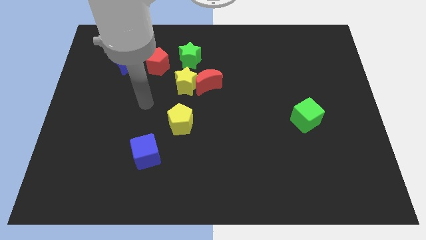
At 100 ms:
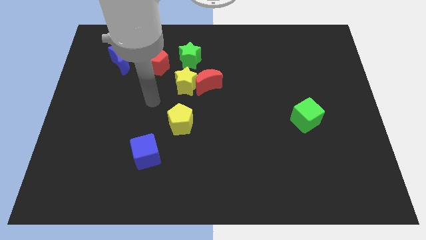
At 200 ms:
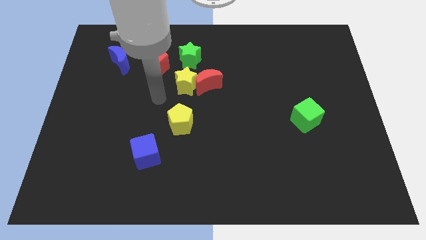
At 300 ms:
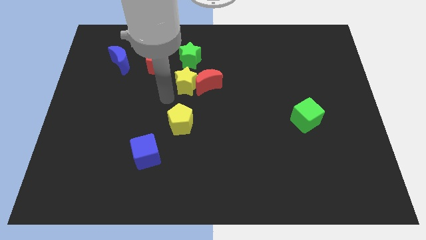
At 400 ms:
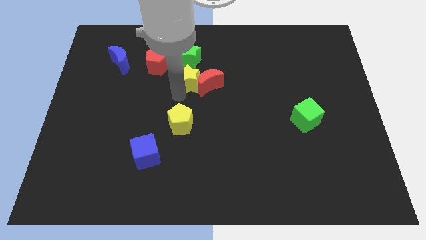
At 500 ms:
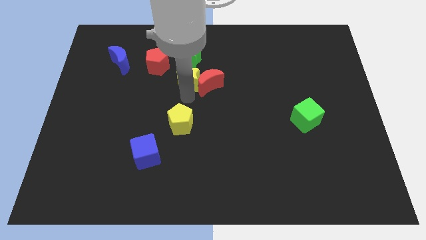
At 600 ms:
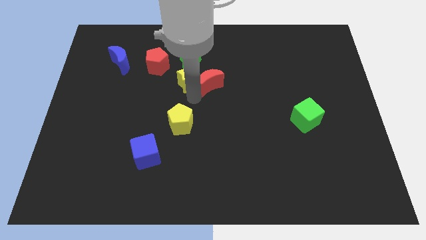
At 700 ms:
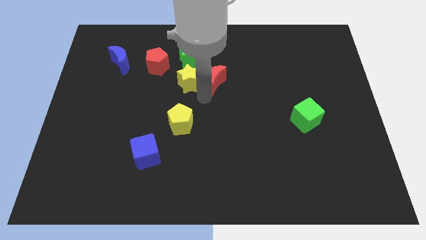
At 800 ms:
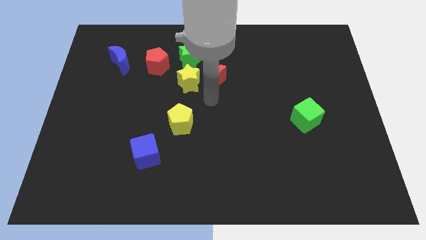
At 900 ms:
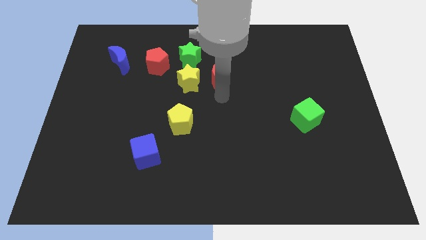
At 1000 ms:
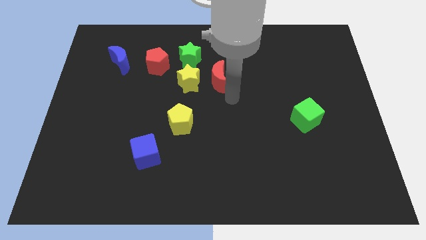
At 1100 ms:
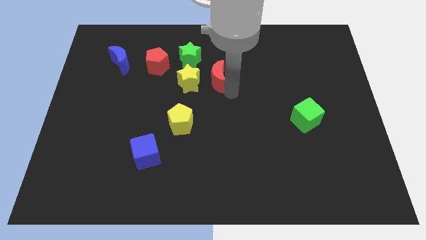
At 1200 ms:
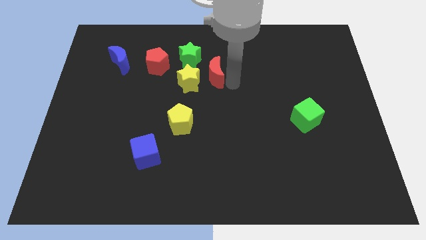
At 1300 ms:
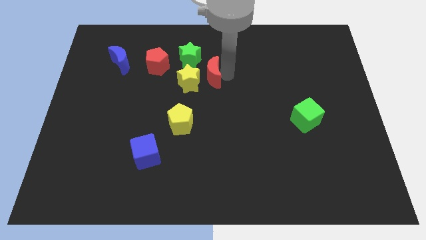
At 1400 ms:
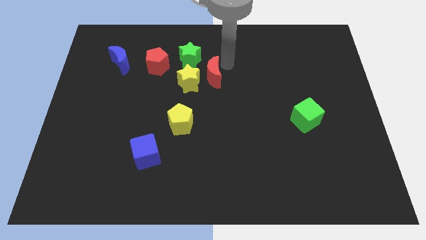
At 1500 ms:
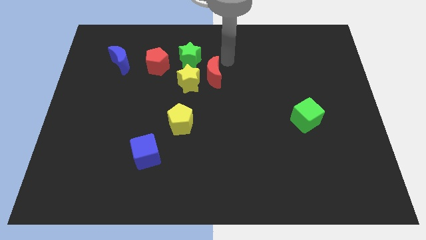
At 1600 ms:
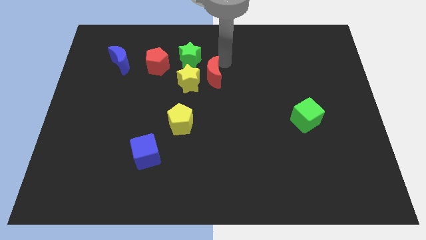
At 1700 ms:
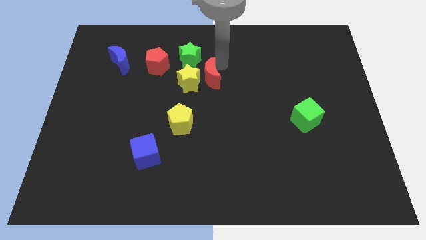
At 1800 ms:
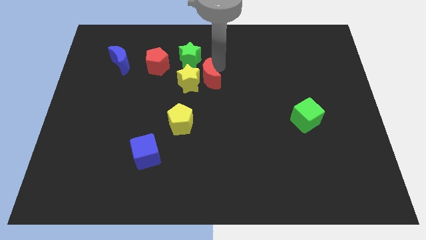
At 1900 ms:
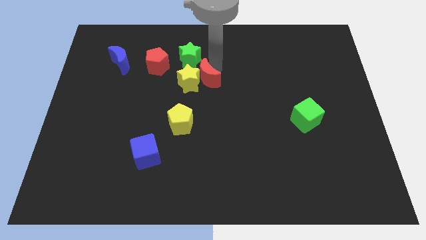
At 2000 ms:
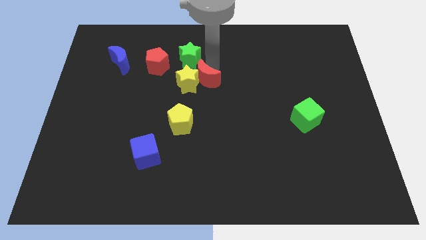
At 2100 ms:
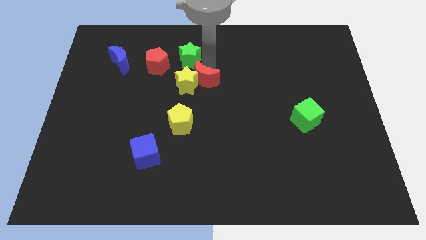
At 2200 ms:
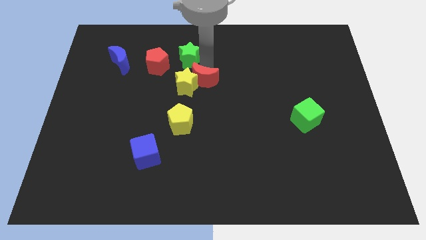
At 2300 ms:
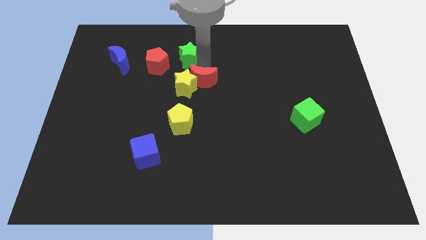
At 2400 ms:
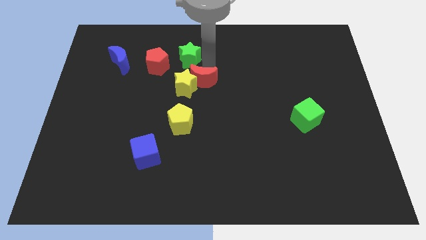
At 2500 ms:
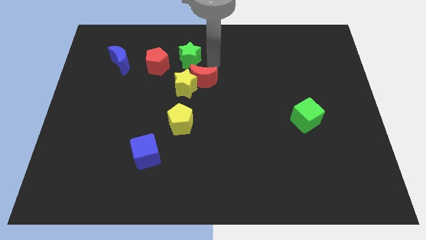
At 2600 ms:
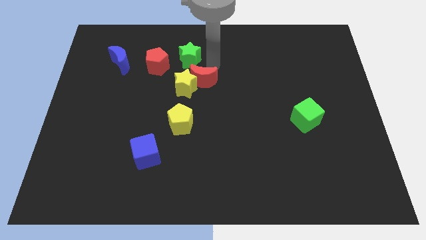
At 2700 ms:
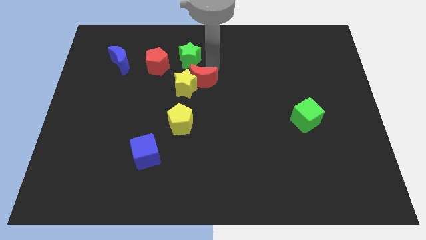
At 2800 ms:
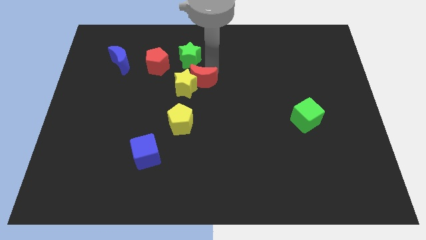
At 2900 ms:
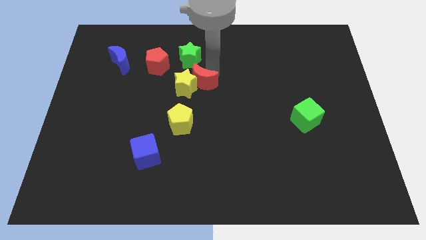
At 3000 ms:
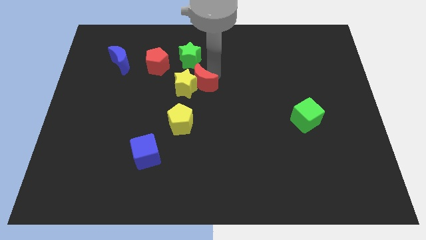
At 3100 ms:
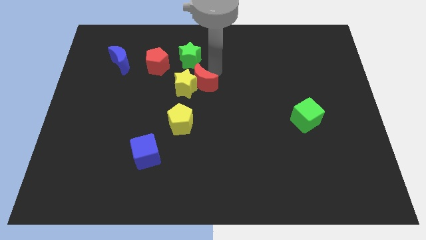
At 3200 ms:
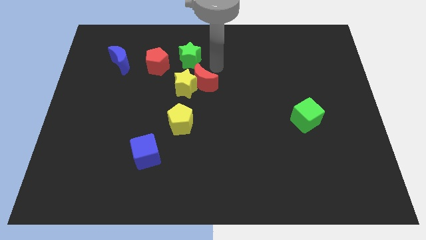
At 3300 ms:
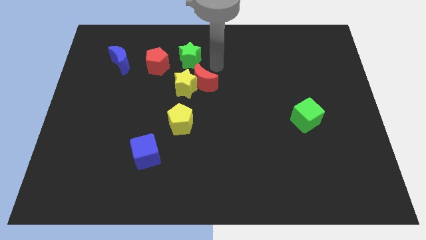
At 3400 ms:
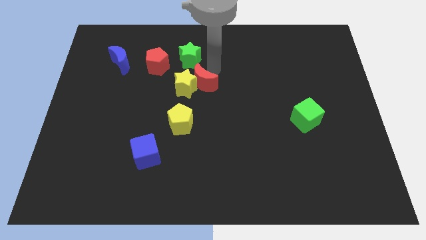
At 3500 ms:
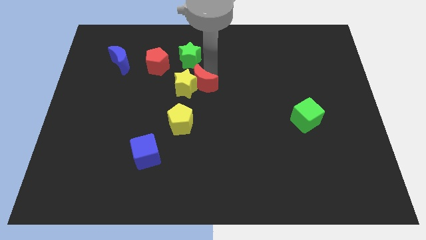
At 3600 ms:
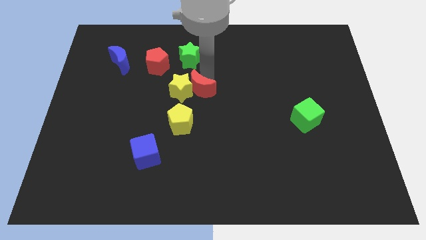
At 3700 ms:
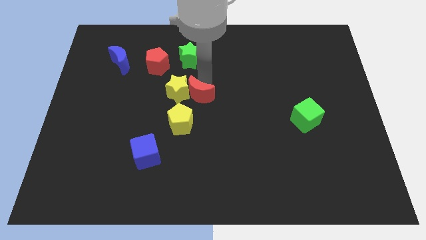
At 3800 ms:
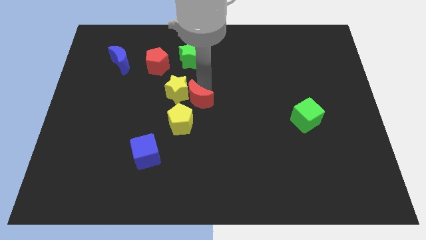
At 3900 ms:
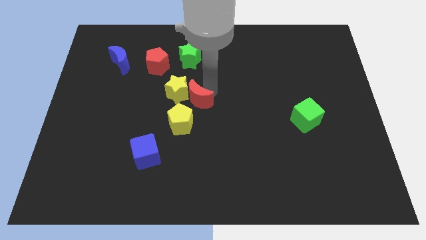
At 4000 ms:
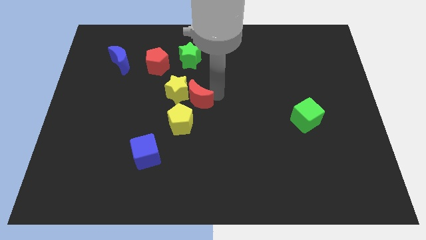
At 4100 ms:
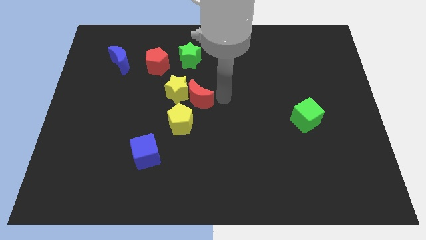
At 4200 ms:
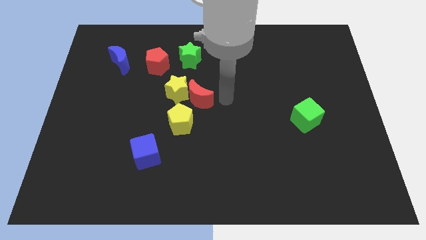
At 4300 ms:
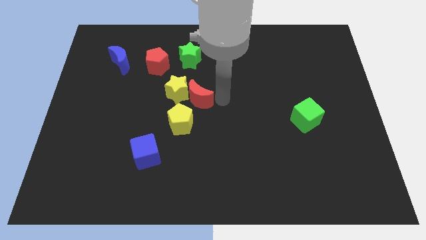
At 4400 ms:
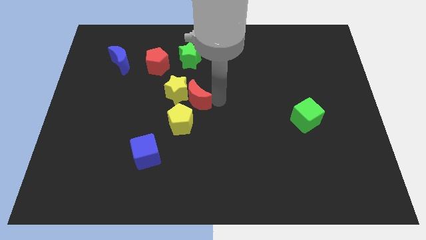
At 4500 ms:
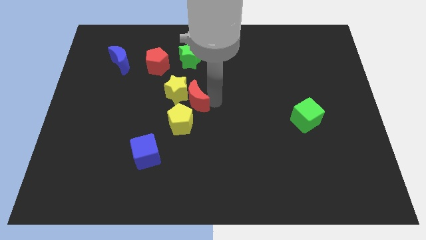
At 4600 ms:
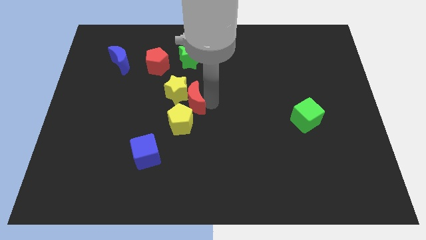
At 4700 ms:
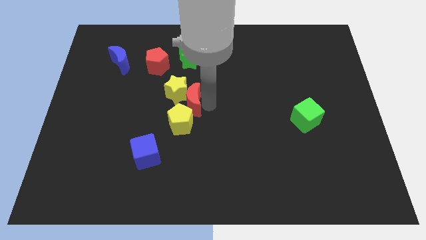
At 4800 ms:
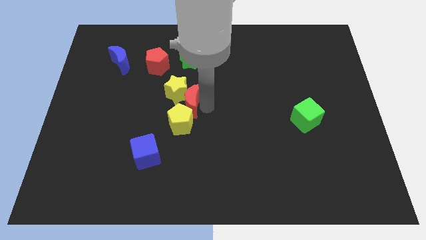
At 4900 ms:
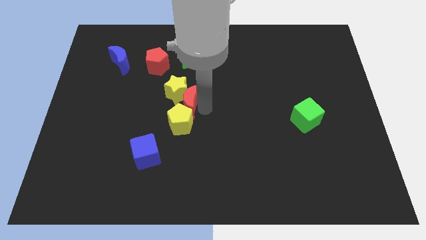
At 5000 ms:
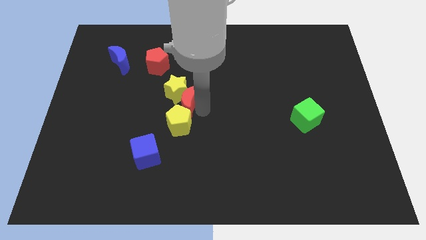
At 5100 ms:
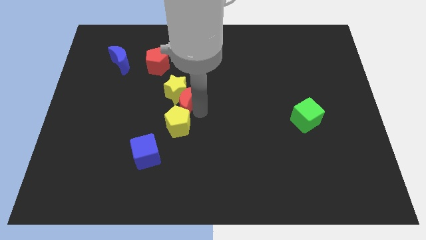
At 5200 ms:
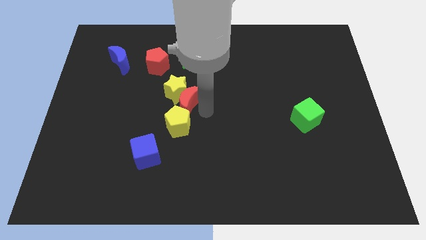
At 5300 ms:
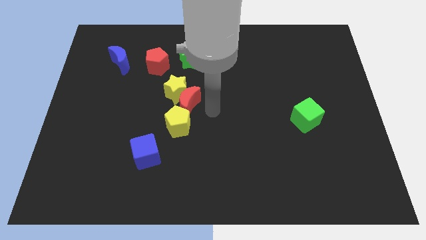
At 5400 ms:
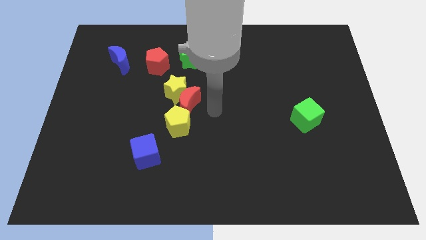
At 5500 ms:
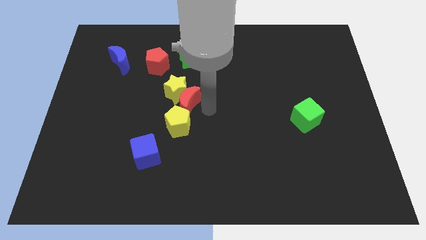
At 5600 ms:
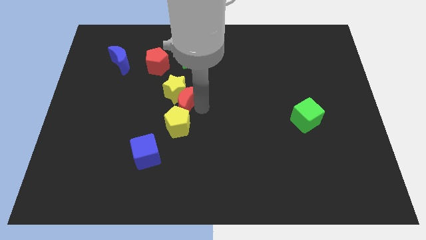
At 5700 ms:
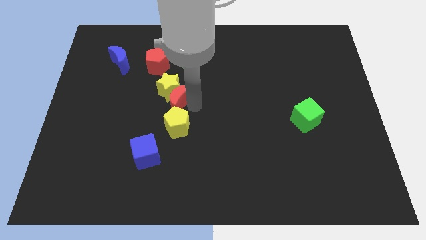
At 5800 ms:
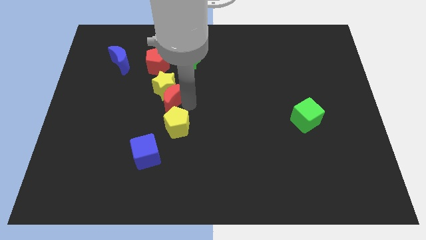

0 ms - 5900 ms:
push the red moon to the left somewhat

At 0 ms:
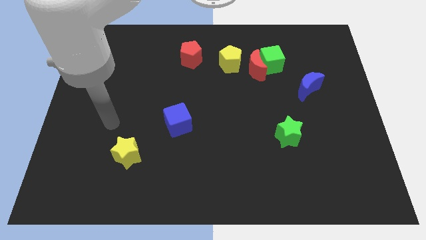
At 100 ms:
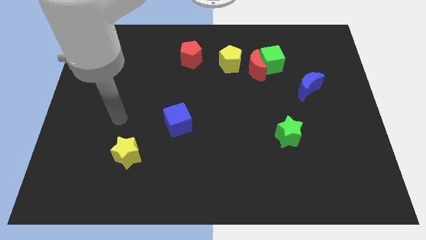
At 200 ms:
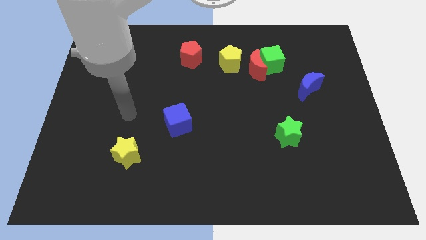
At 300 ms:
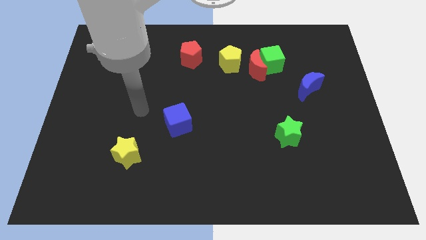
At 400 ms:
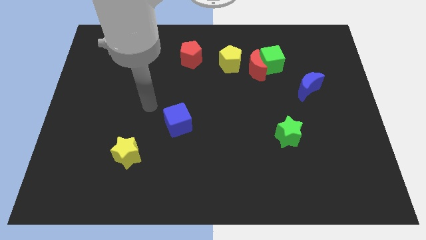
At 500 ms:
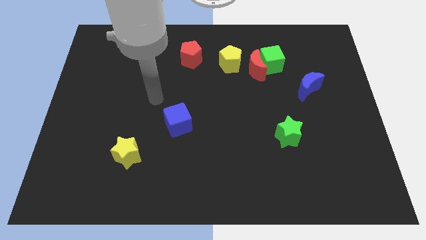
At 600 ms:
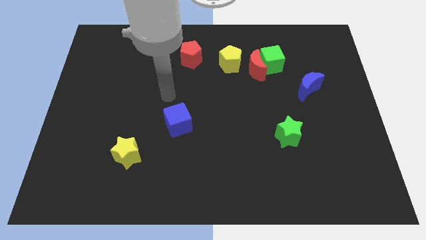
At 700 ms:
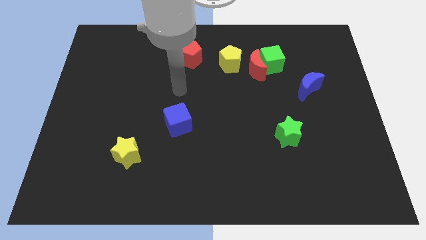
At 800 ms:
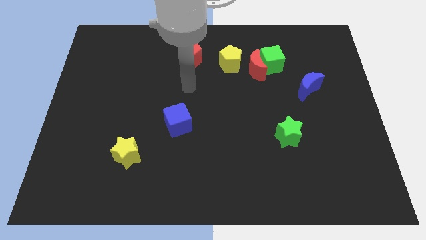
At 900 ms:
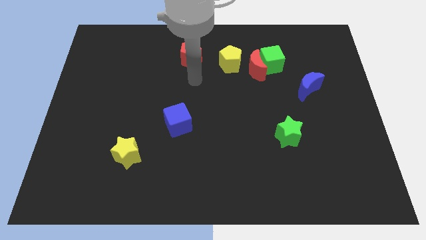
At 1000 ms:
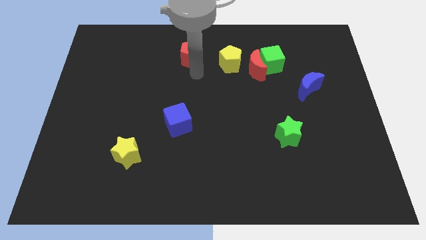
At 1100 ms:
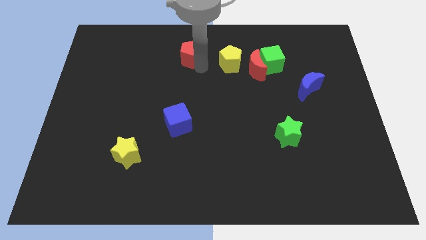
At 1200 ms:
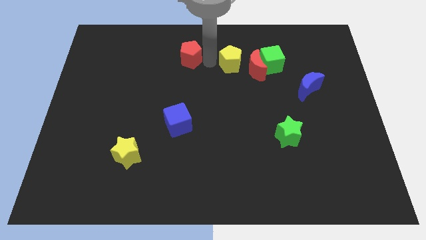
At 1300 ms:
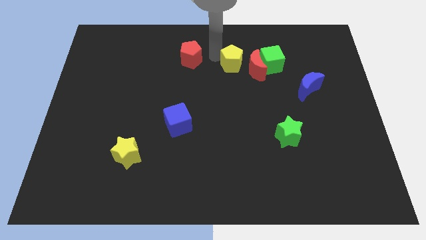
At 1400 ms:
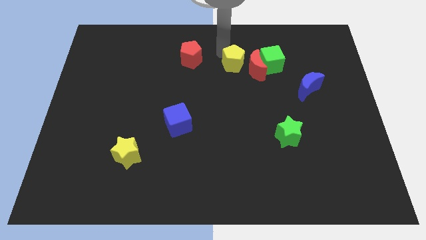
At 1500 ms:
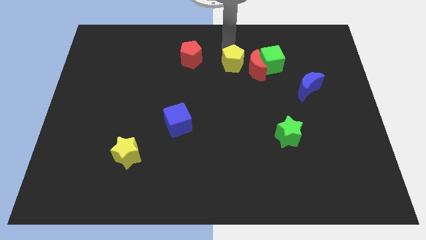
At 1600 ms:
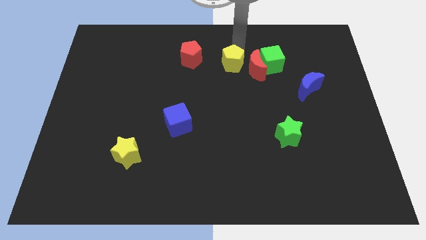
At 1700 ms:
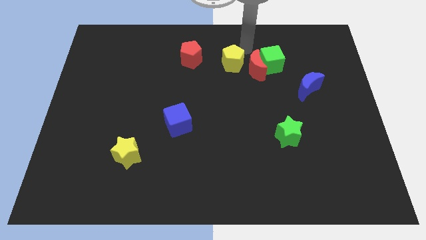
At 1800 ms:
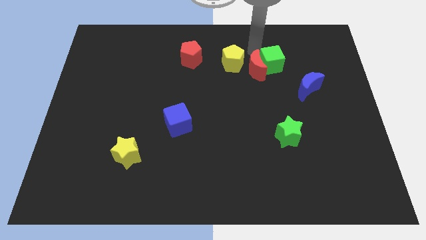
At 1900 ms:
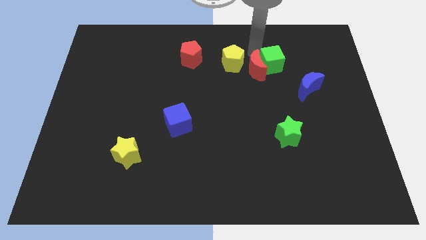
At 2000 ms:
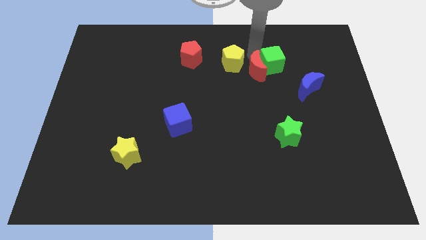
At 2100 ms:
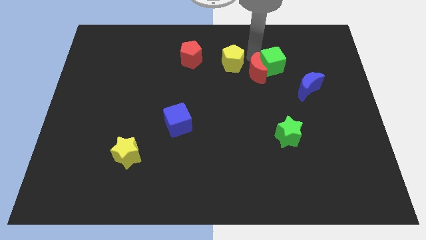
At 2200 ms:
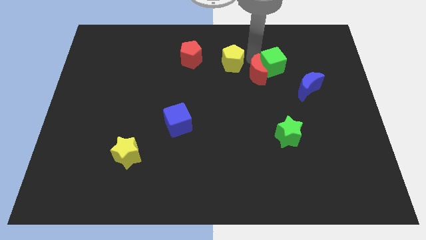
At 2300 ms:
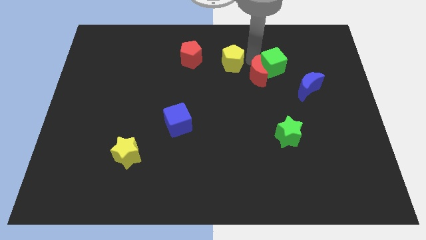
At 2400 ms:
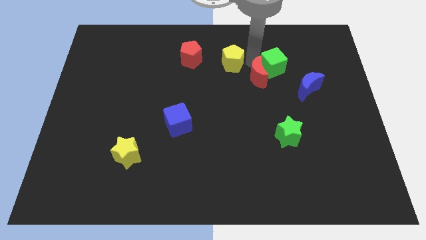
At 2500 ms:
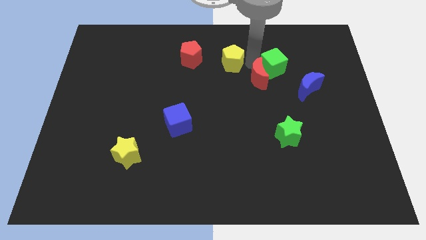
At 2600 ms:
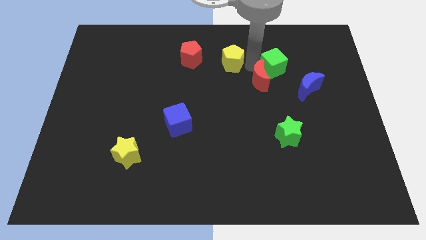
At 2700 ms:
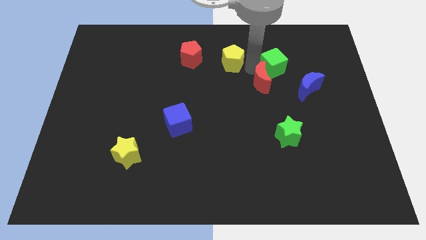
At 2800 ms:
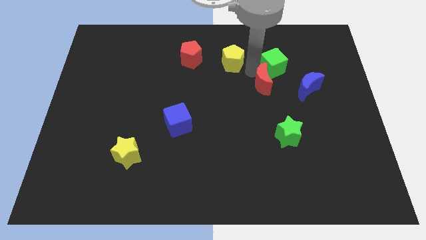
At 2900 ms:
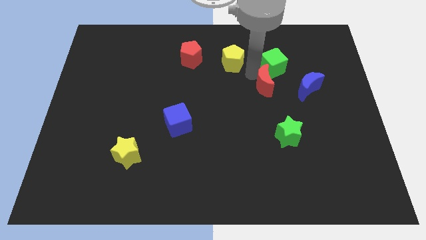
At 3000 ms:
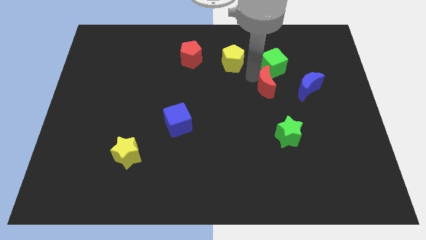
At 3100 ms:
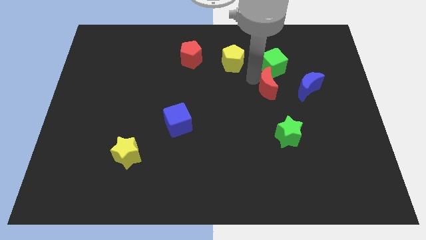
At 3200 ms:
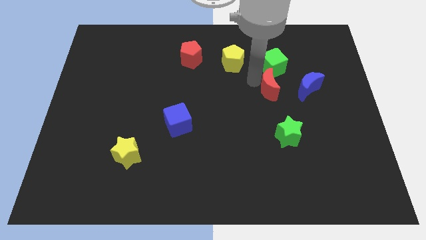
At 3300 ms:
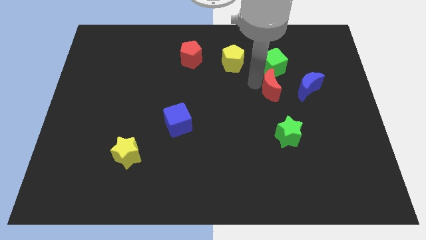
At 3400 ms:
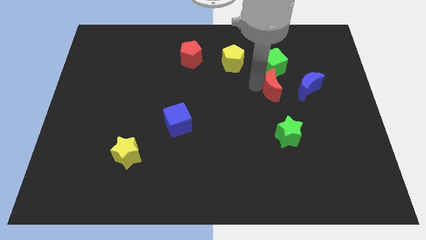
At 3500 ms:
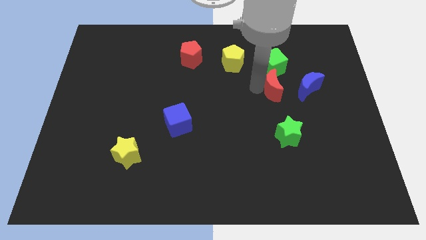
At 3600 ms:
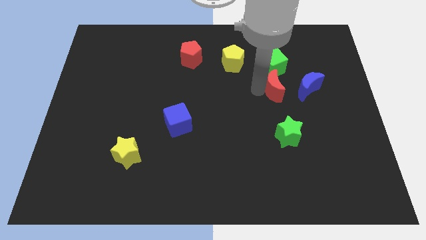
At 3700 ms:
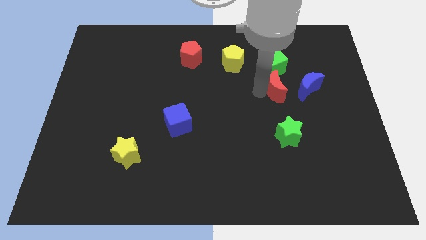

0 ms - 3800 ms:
move the red moon down somewhat
